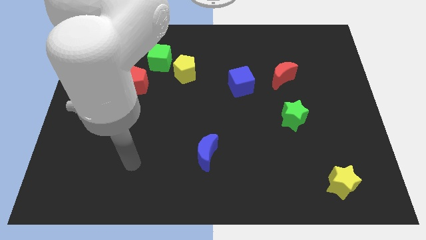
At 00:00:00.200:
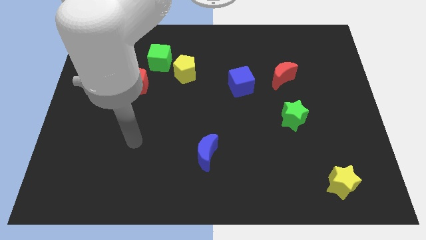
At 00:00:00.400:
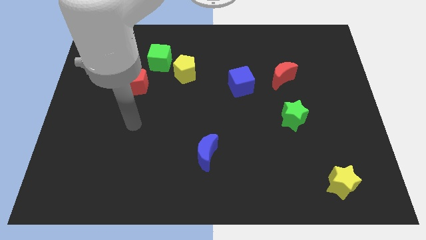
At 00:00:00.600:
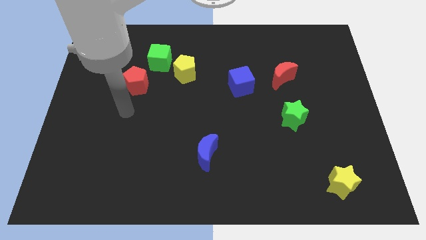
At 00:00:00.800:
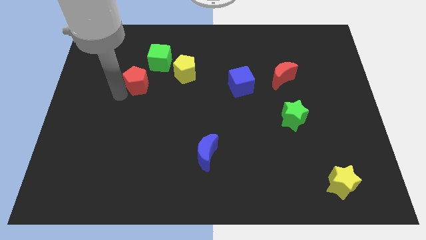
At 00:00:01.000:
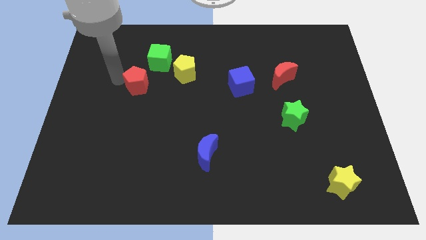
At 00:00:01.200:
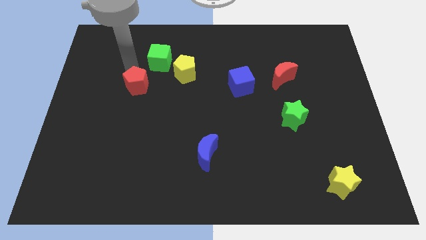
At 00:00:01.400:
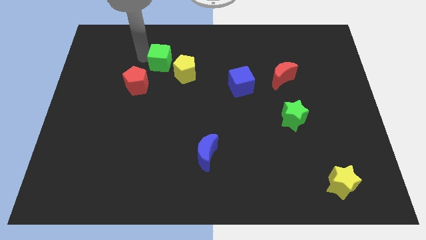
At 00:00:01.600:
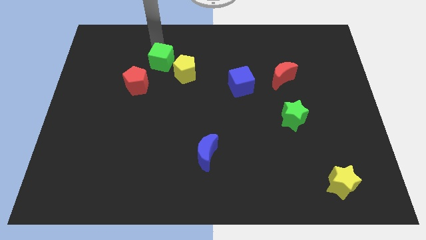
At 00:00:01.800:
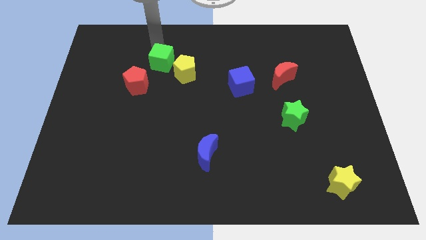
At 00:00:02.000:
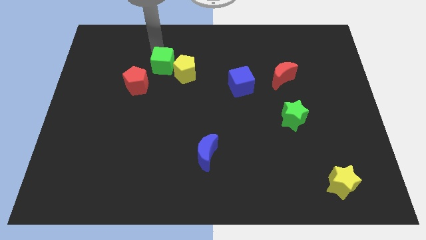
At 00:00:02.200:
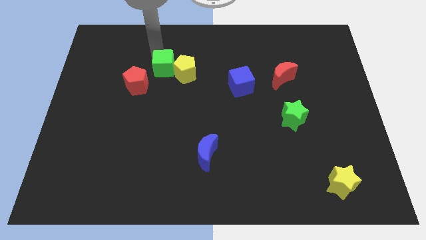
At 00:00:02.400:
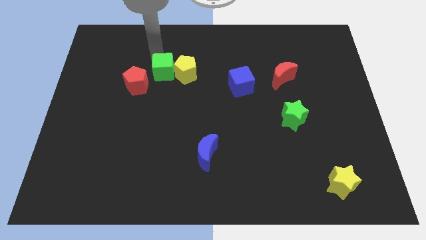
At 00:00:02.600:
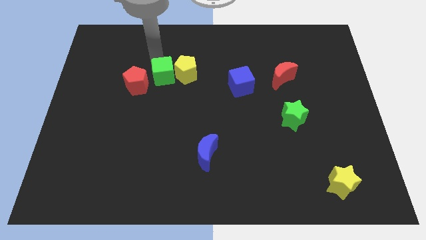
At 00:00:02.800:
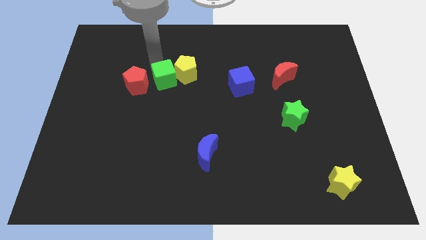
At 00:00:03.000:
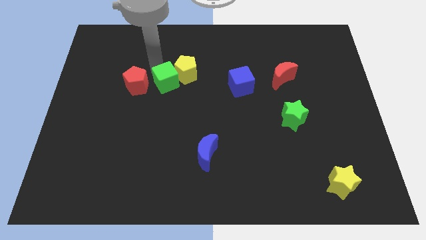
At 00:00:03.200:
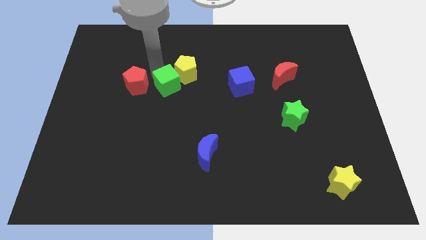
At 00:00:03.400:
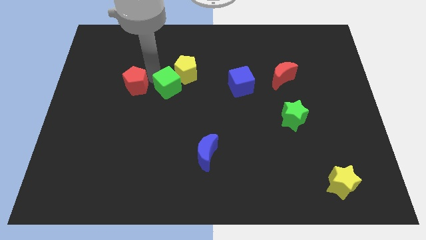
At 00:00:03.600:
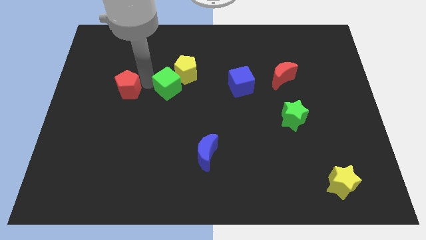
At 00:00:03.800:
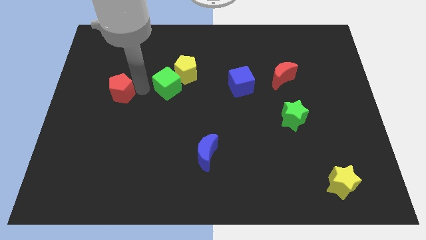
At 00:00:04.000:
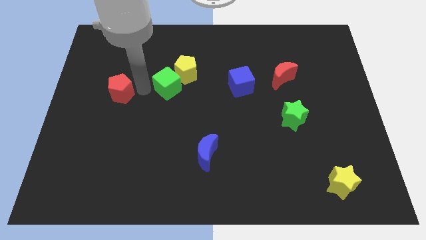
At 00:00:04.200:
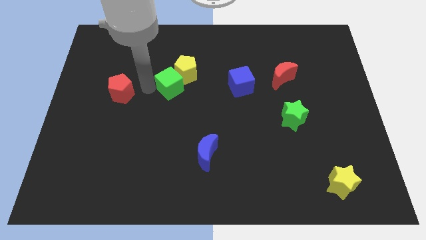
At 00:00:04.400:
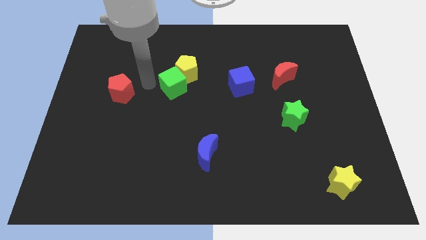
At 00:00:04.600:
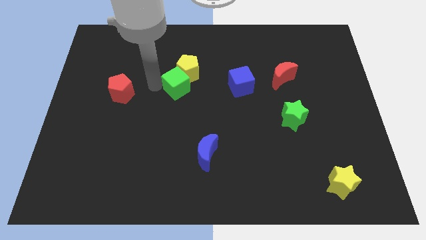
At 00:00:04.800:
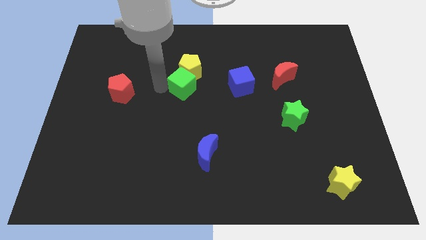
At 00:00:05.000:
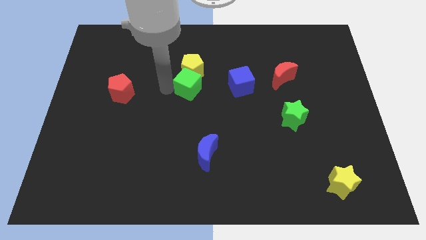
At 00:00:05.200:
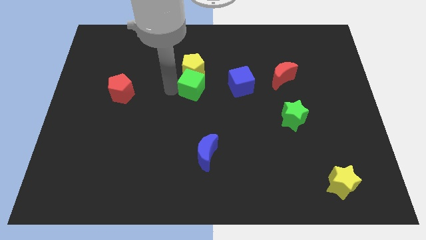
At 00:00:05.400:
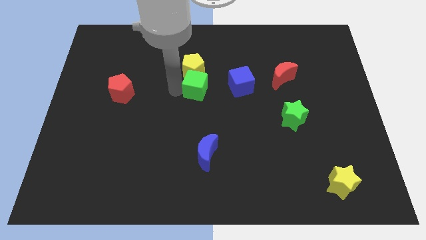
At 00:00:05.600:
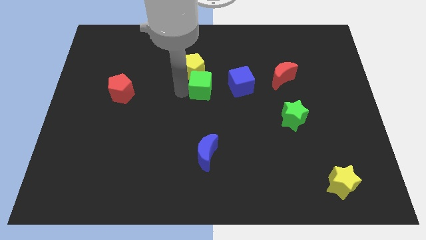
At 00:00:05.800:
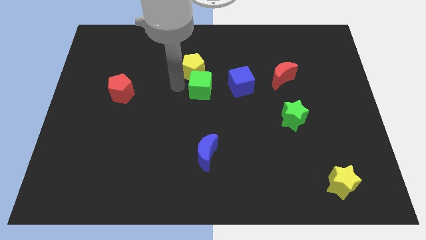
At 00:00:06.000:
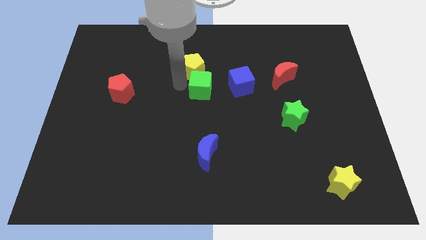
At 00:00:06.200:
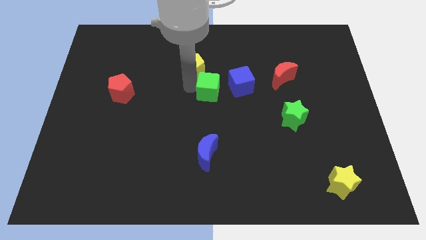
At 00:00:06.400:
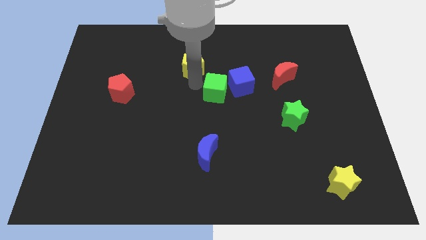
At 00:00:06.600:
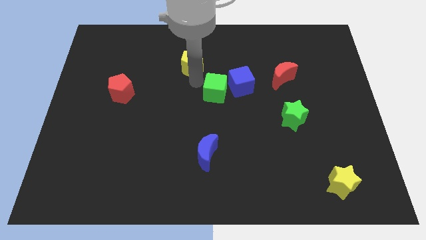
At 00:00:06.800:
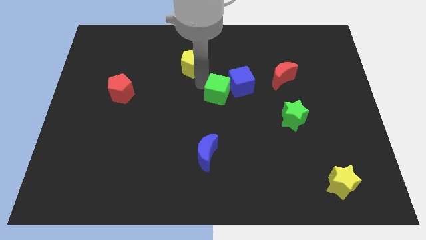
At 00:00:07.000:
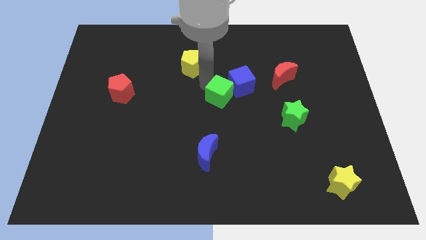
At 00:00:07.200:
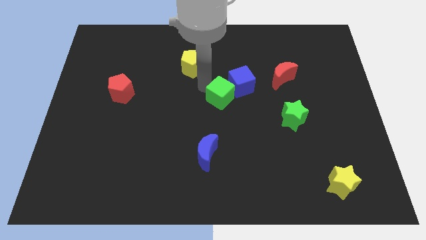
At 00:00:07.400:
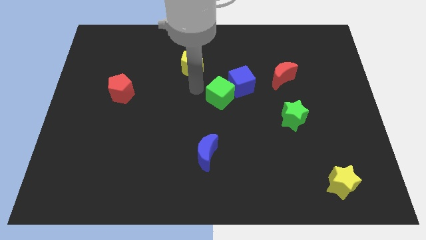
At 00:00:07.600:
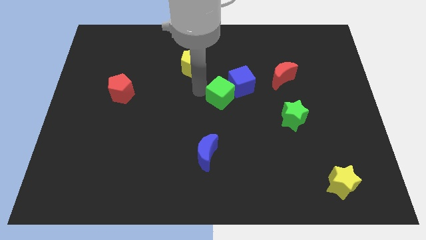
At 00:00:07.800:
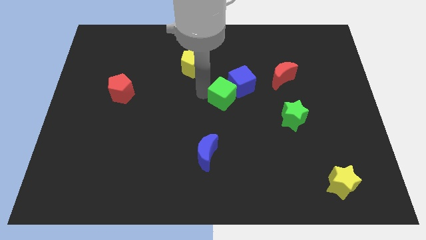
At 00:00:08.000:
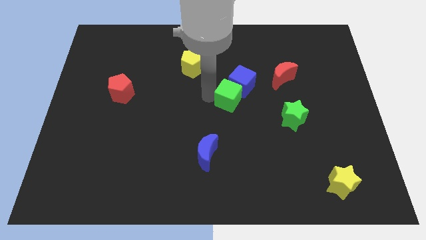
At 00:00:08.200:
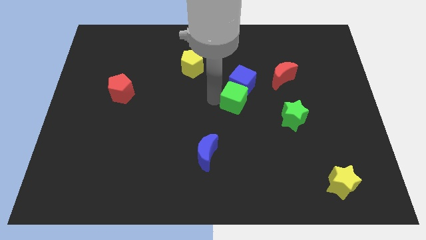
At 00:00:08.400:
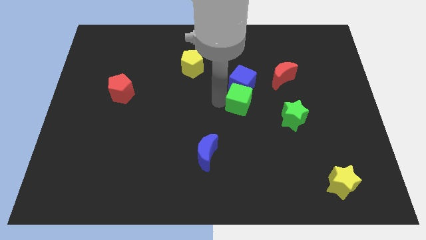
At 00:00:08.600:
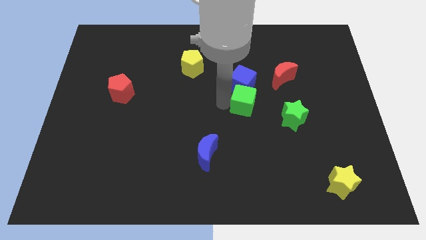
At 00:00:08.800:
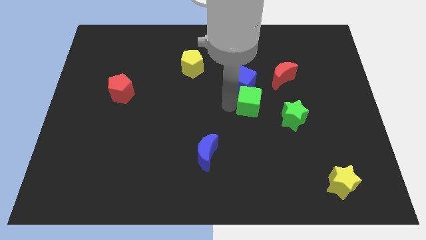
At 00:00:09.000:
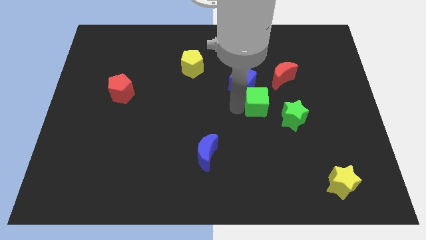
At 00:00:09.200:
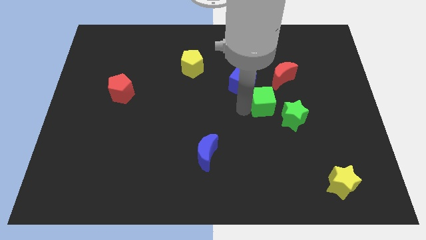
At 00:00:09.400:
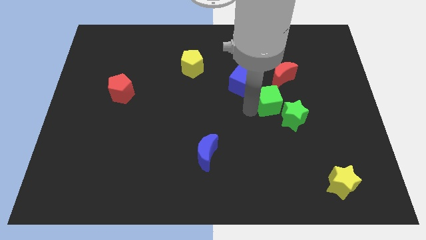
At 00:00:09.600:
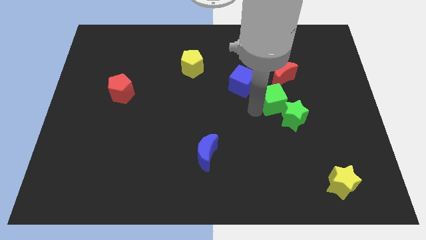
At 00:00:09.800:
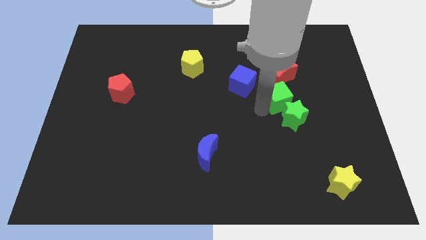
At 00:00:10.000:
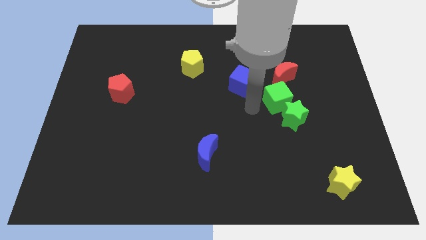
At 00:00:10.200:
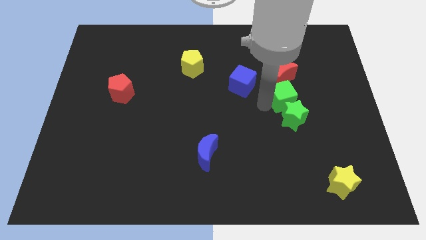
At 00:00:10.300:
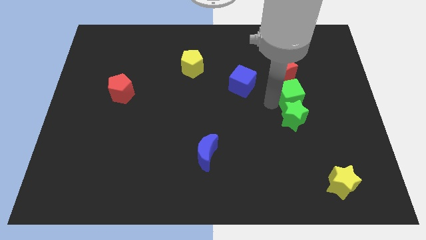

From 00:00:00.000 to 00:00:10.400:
put the green cube diagonally down and to the right of the red moon

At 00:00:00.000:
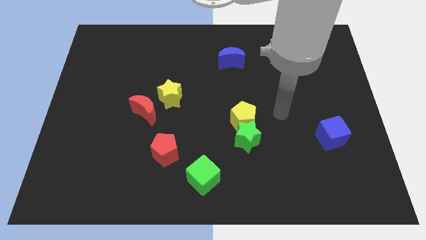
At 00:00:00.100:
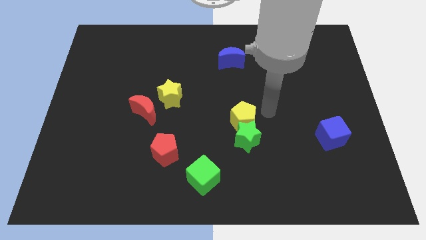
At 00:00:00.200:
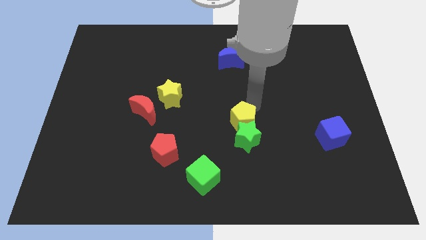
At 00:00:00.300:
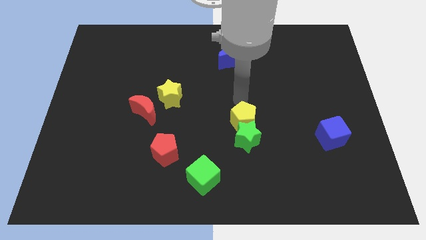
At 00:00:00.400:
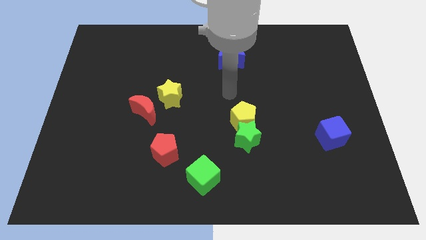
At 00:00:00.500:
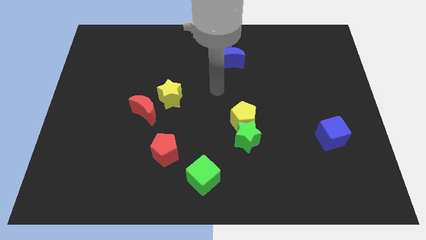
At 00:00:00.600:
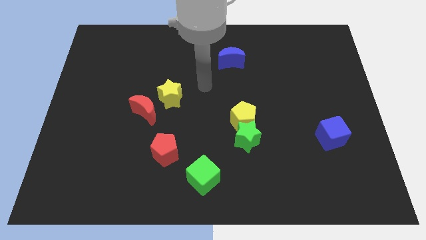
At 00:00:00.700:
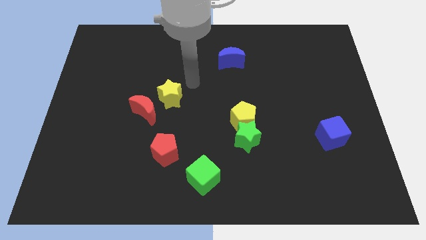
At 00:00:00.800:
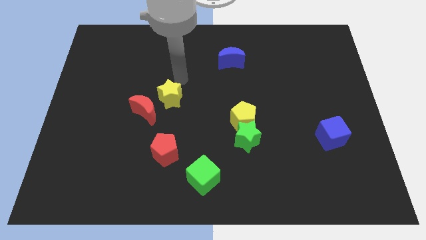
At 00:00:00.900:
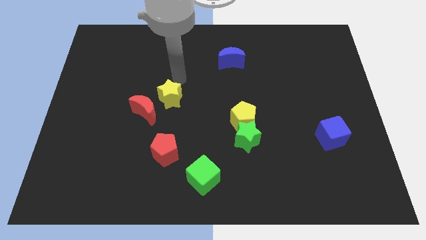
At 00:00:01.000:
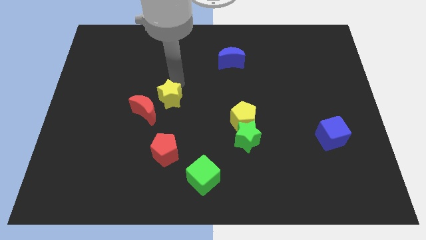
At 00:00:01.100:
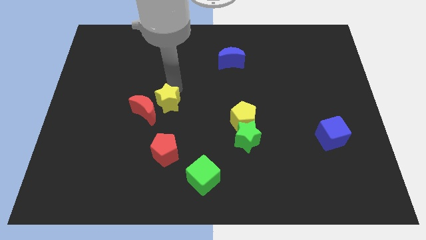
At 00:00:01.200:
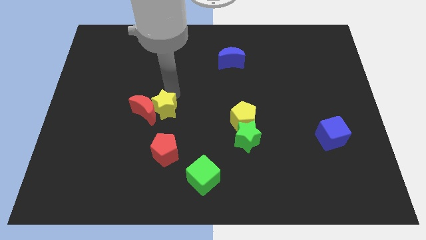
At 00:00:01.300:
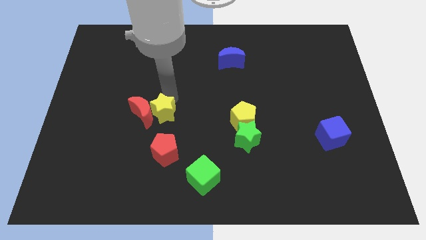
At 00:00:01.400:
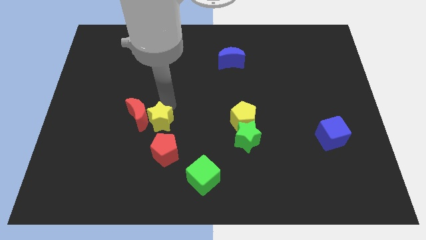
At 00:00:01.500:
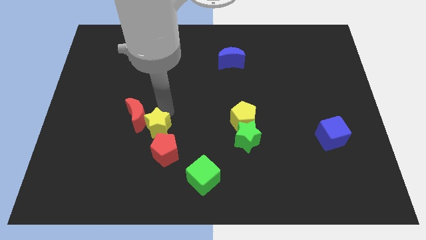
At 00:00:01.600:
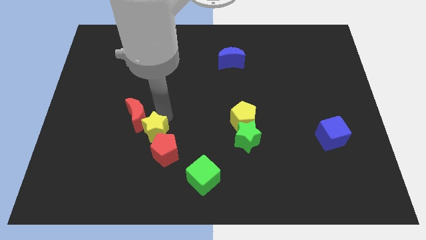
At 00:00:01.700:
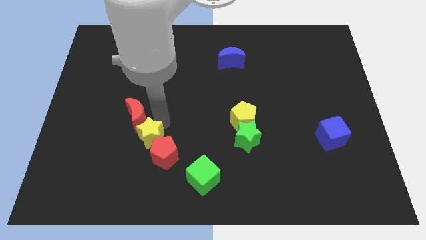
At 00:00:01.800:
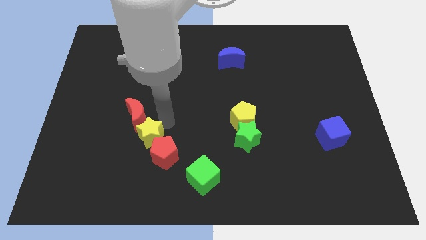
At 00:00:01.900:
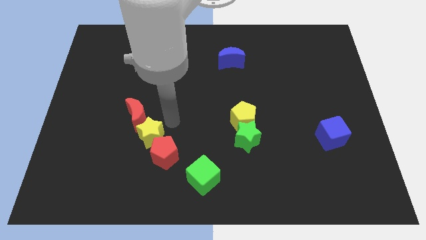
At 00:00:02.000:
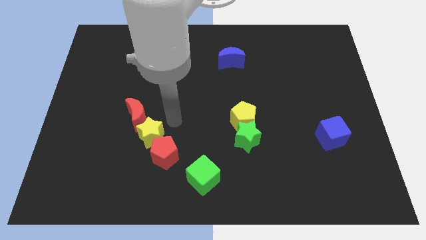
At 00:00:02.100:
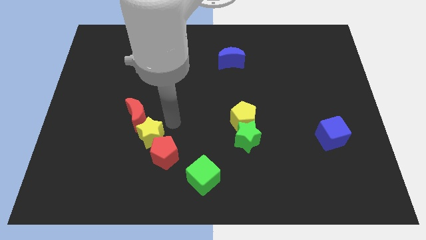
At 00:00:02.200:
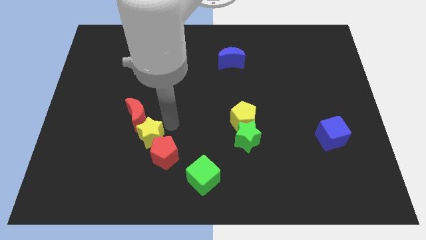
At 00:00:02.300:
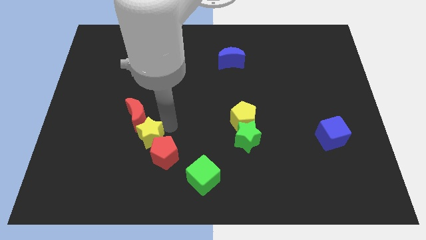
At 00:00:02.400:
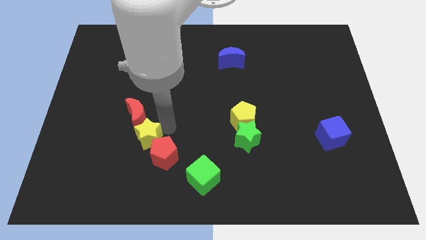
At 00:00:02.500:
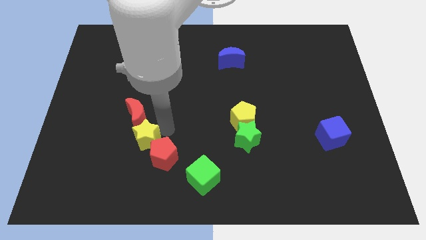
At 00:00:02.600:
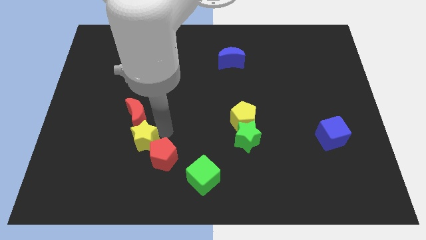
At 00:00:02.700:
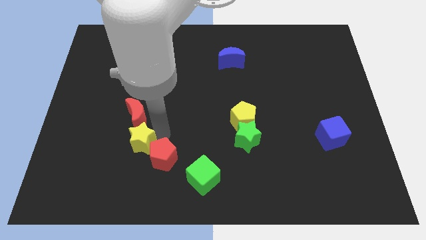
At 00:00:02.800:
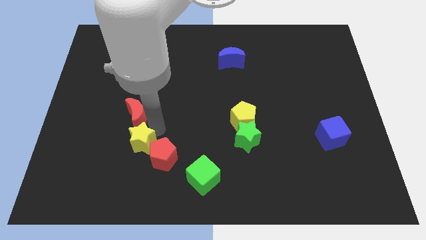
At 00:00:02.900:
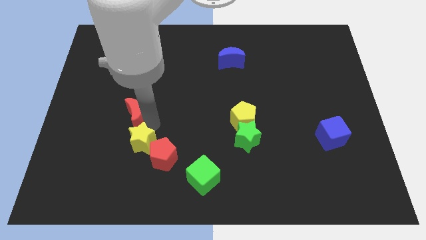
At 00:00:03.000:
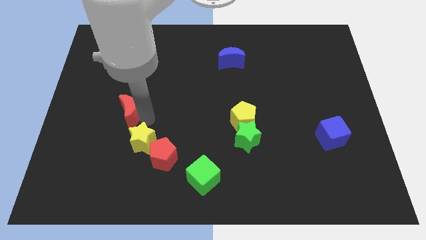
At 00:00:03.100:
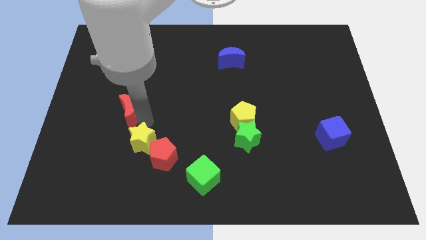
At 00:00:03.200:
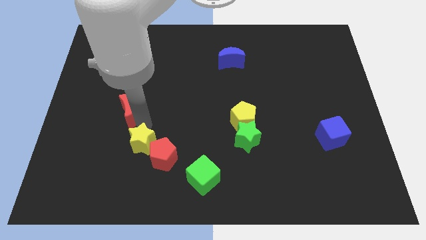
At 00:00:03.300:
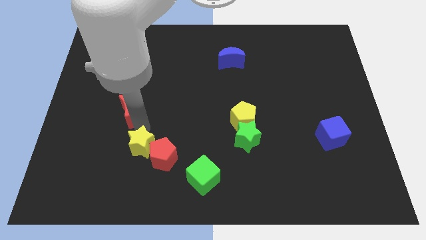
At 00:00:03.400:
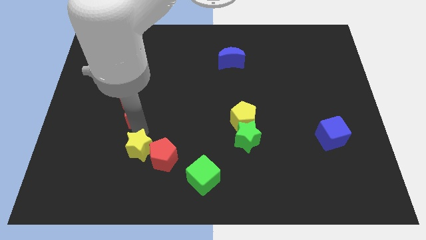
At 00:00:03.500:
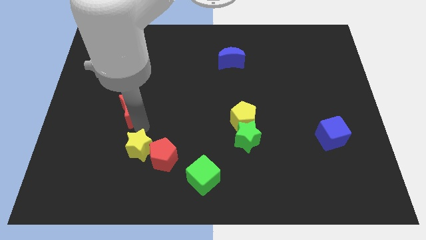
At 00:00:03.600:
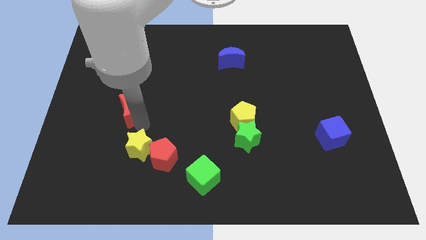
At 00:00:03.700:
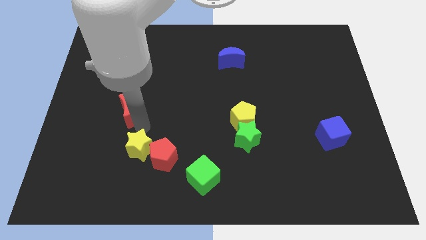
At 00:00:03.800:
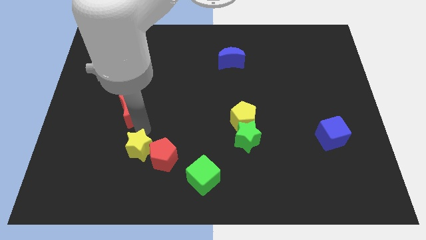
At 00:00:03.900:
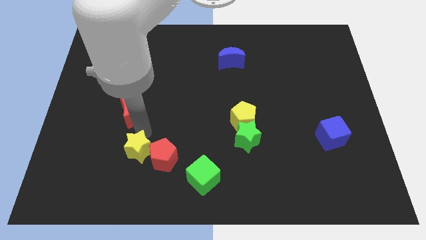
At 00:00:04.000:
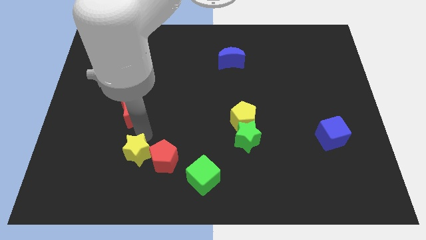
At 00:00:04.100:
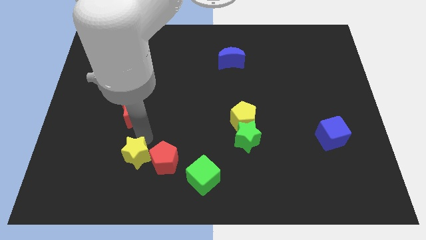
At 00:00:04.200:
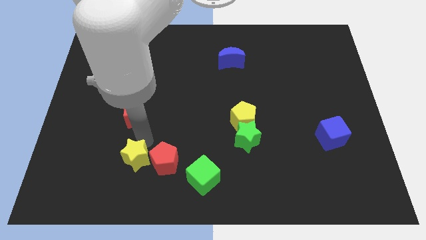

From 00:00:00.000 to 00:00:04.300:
move the yellow star to the bottom left side of the red pentagon
